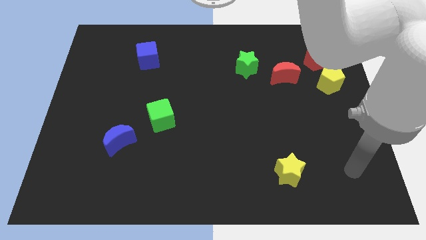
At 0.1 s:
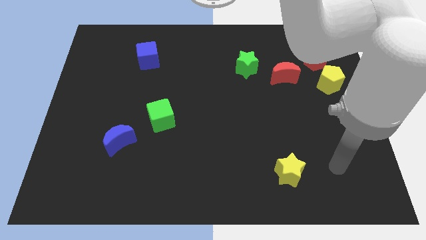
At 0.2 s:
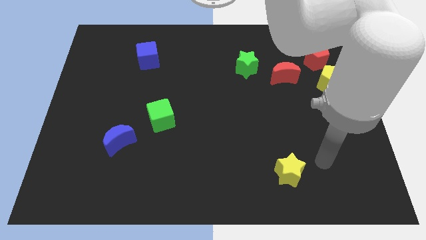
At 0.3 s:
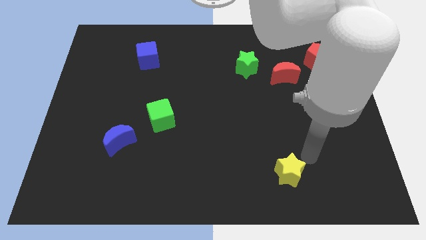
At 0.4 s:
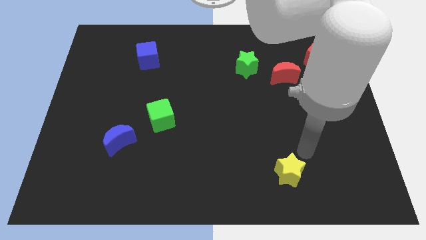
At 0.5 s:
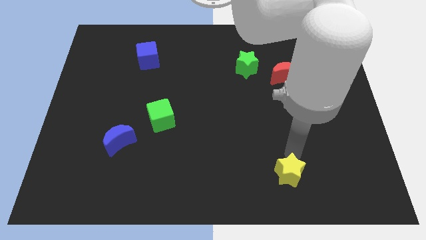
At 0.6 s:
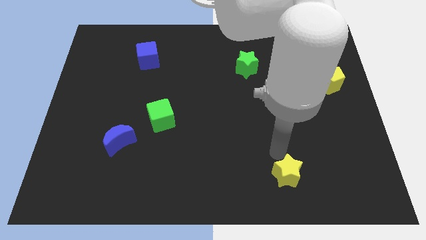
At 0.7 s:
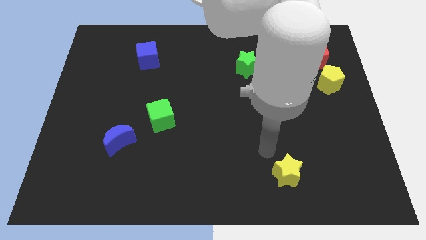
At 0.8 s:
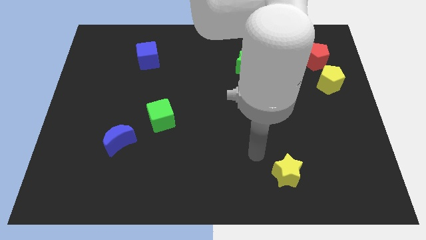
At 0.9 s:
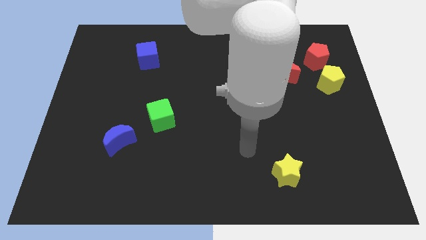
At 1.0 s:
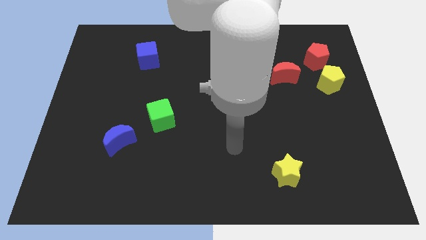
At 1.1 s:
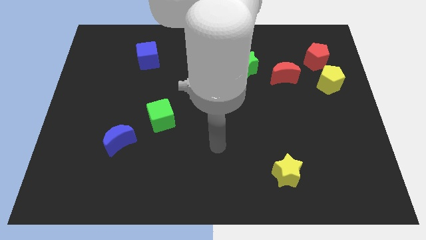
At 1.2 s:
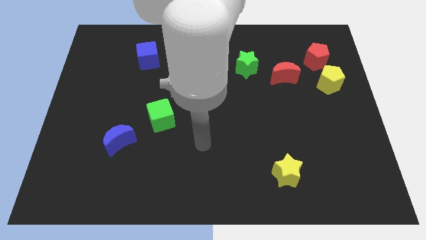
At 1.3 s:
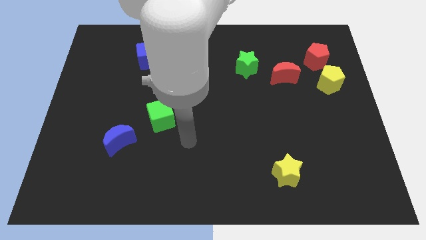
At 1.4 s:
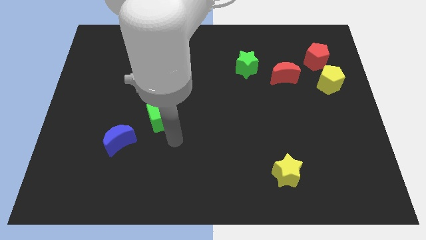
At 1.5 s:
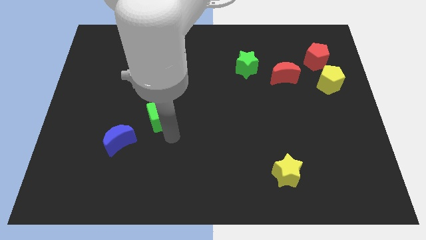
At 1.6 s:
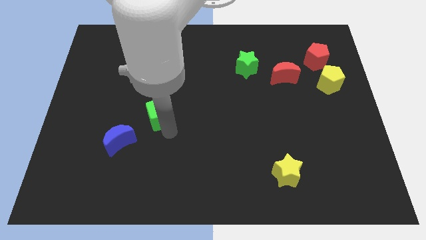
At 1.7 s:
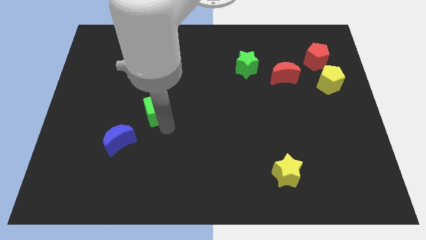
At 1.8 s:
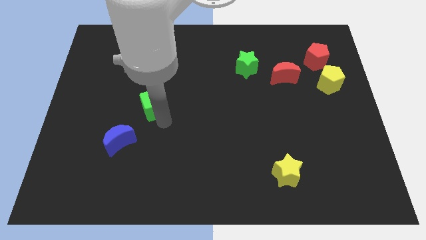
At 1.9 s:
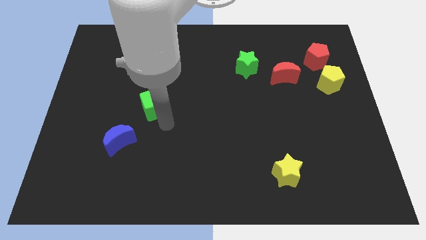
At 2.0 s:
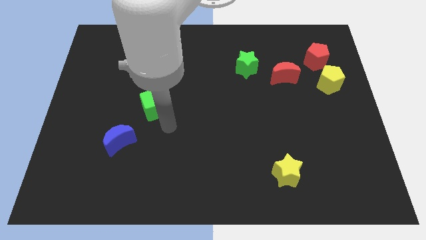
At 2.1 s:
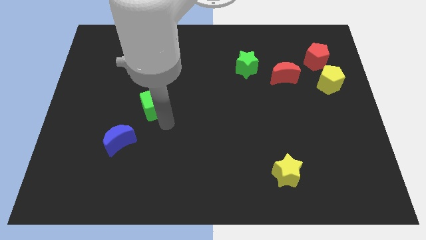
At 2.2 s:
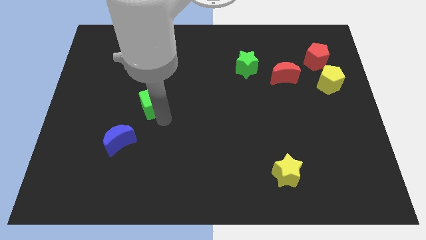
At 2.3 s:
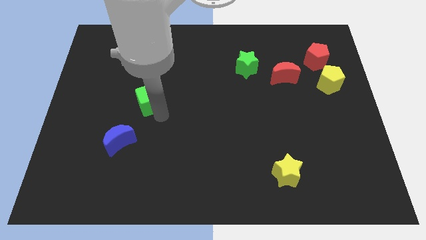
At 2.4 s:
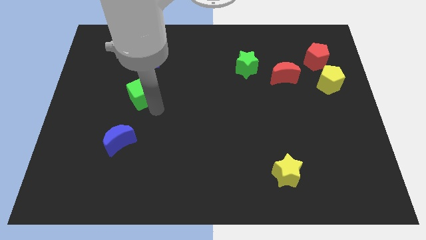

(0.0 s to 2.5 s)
slightly move the green cube upwards and then to the left

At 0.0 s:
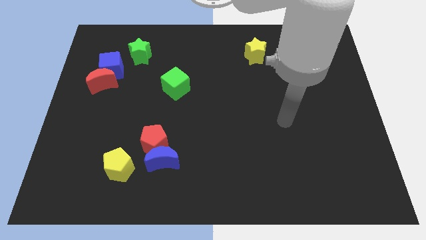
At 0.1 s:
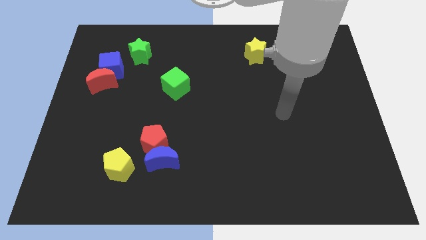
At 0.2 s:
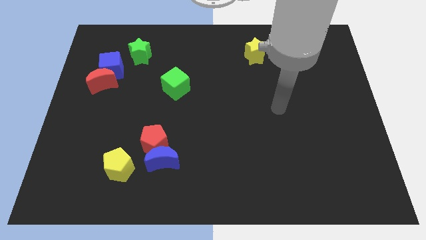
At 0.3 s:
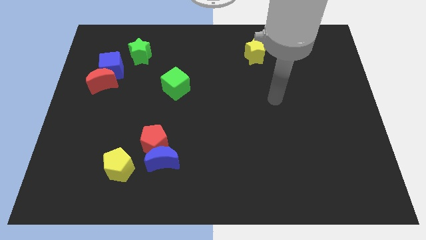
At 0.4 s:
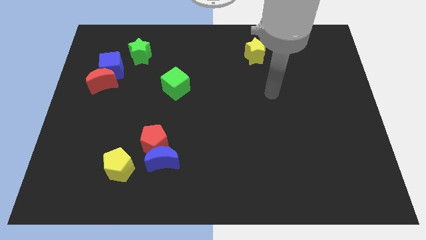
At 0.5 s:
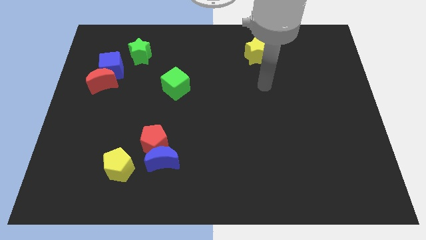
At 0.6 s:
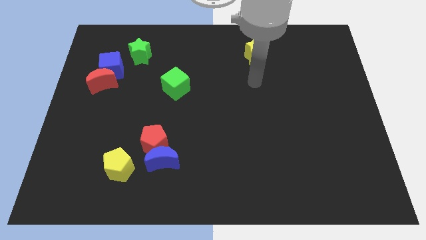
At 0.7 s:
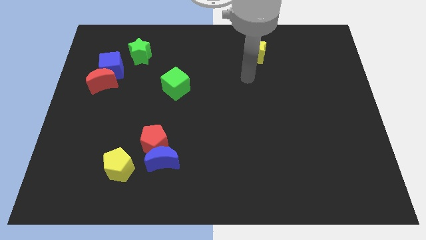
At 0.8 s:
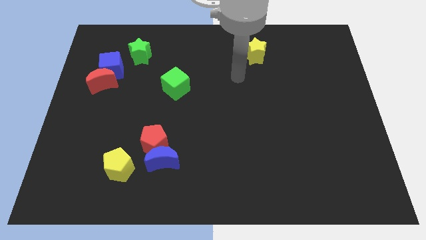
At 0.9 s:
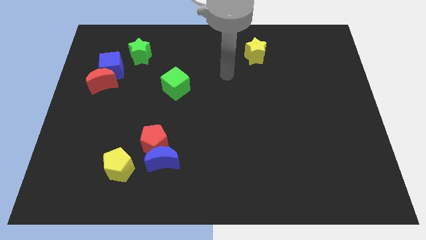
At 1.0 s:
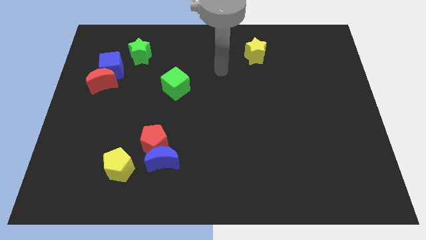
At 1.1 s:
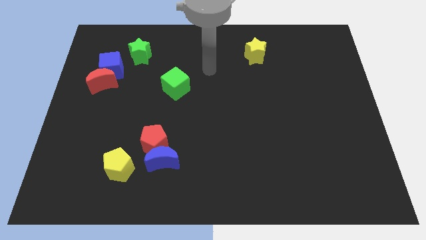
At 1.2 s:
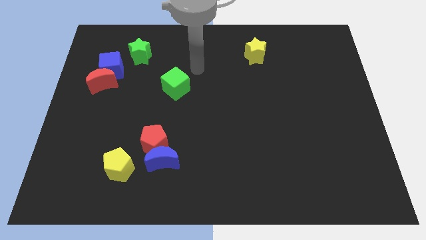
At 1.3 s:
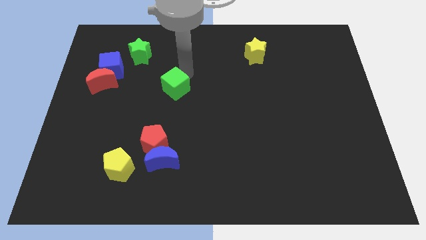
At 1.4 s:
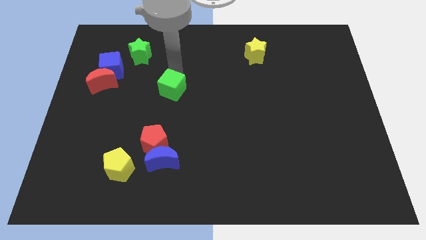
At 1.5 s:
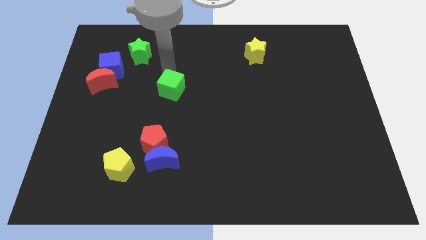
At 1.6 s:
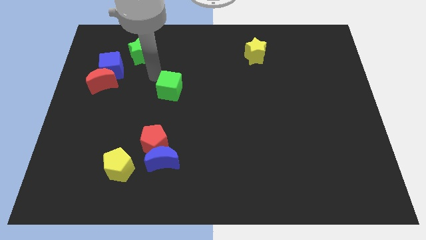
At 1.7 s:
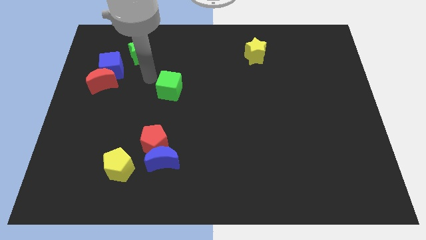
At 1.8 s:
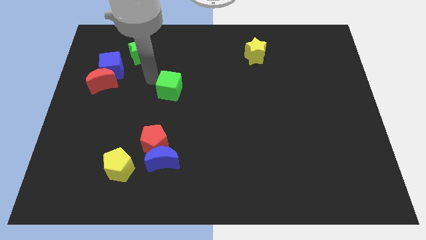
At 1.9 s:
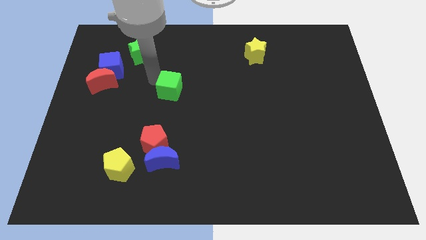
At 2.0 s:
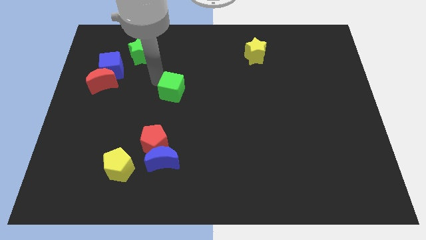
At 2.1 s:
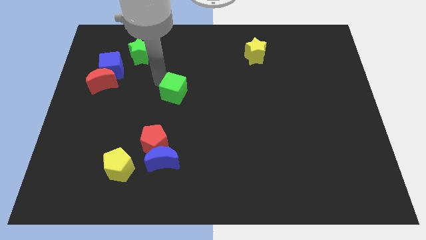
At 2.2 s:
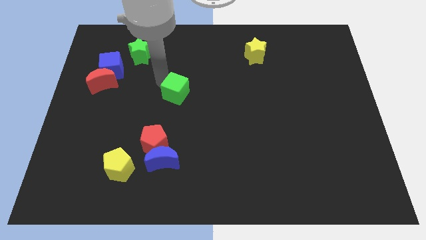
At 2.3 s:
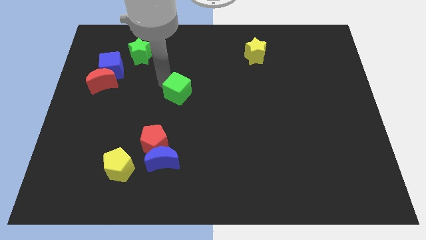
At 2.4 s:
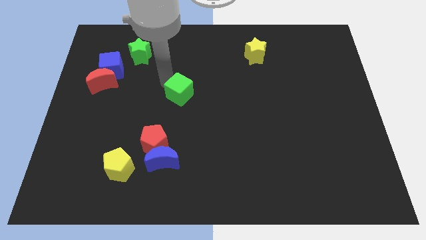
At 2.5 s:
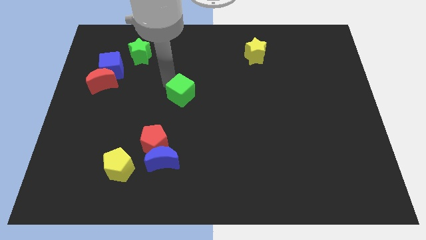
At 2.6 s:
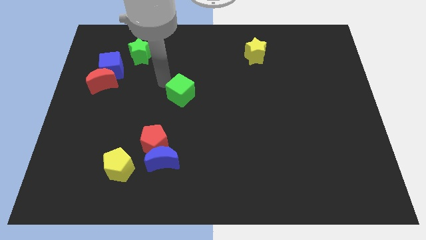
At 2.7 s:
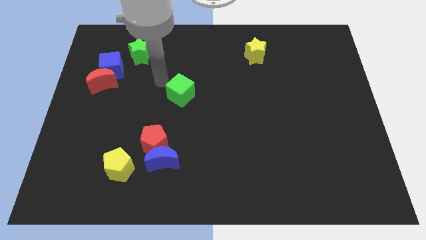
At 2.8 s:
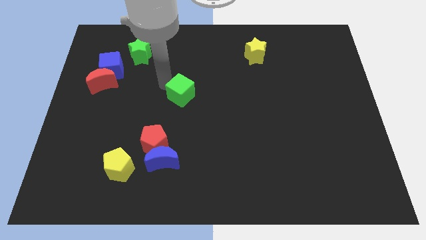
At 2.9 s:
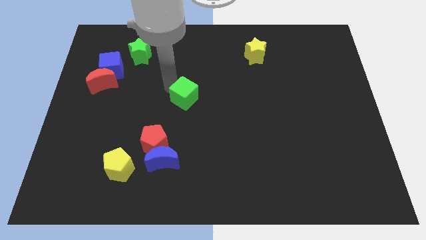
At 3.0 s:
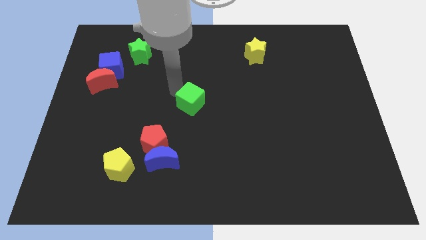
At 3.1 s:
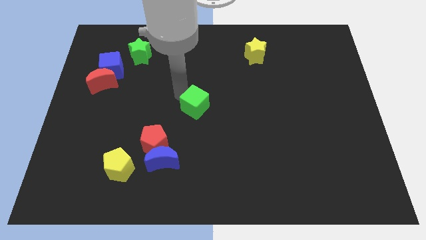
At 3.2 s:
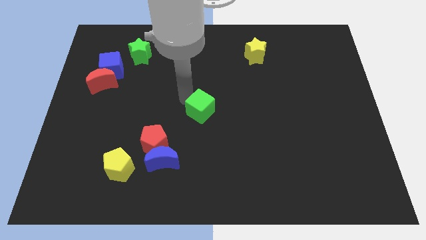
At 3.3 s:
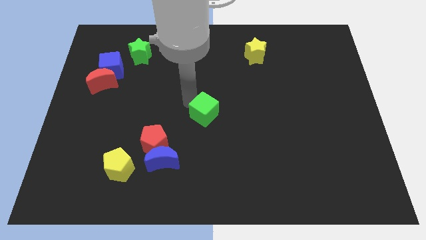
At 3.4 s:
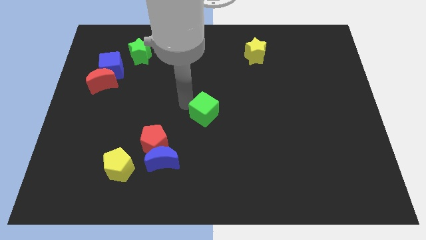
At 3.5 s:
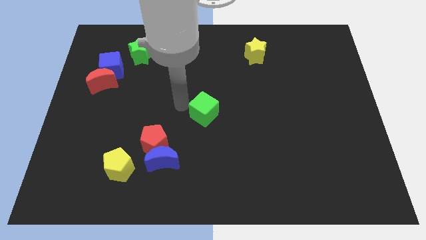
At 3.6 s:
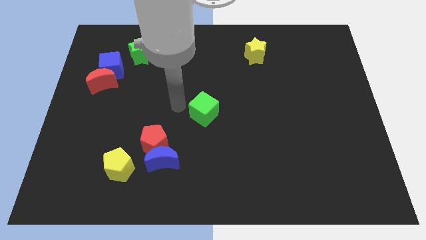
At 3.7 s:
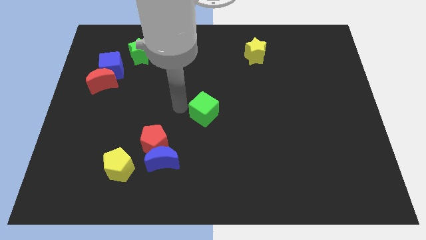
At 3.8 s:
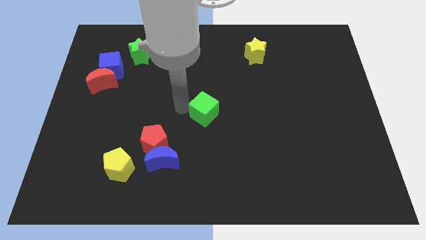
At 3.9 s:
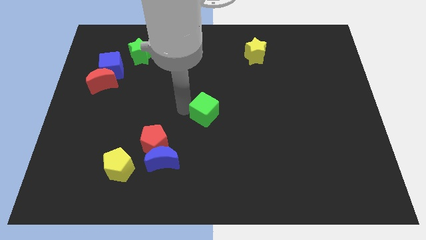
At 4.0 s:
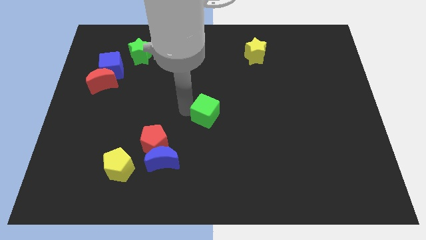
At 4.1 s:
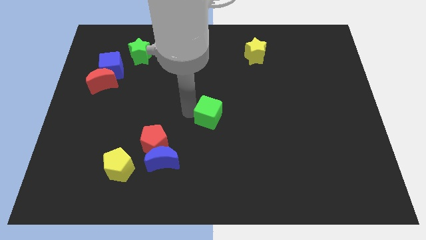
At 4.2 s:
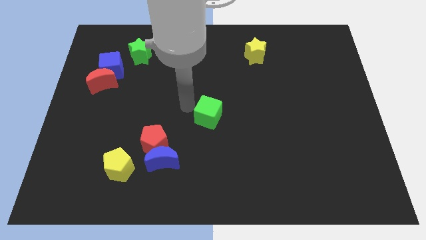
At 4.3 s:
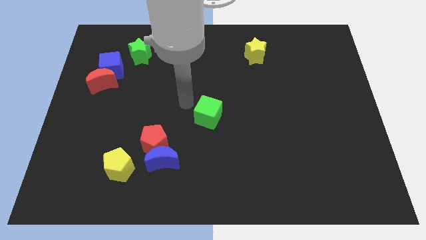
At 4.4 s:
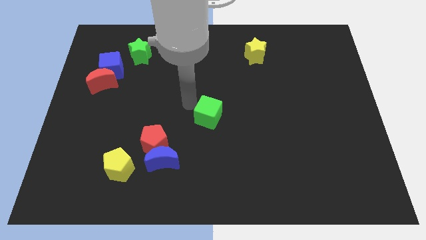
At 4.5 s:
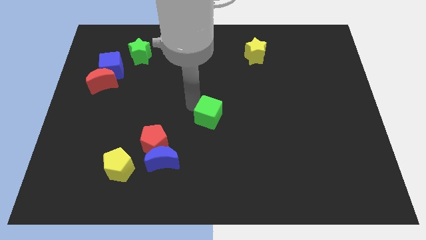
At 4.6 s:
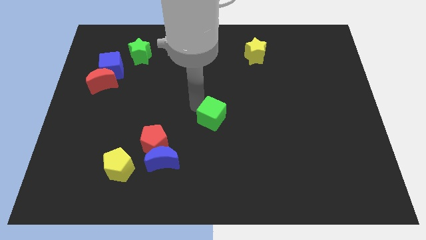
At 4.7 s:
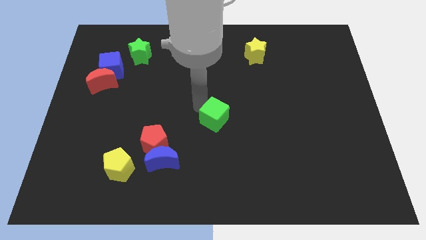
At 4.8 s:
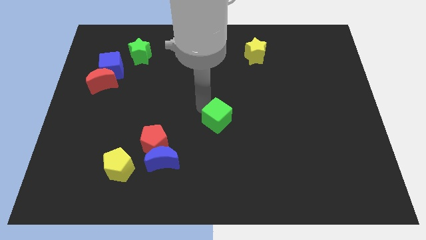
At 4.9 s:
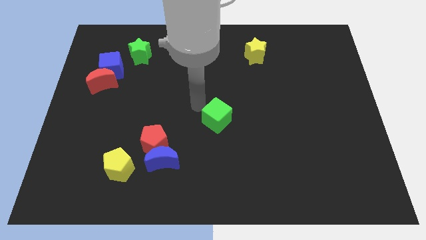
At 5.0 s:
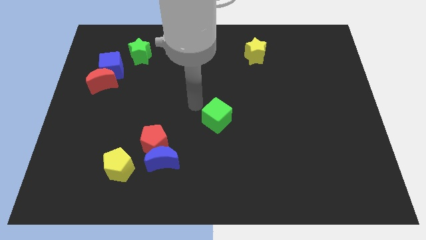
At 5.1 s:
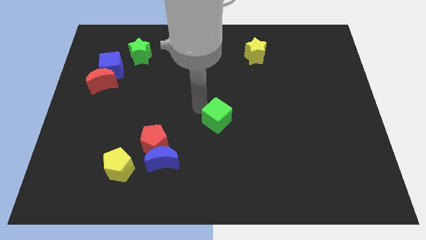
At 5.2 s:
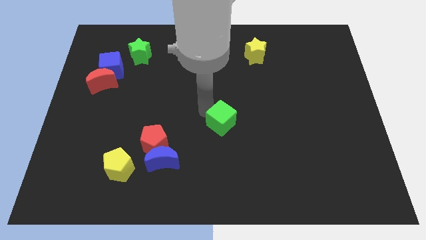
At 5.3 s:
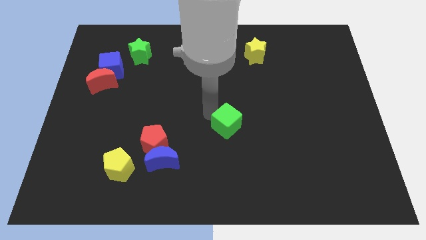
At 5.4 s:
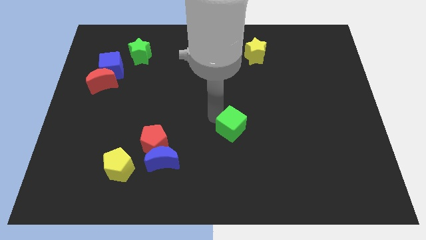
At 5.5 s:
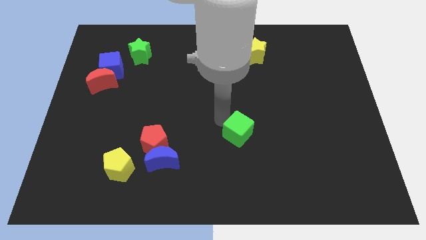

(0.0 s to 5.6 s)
push the green cube downwards and to the right diagonally
